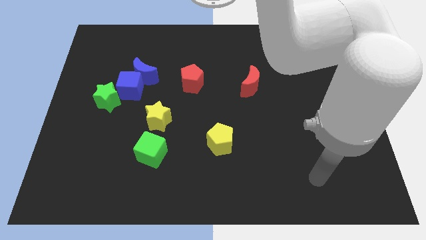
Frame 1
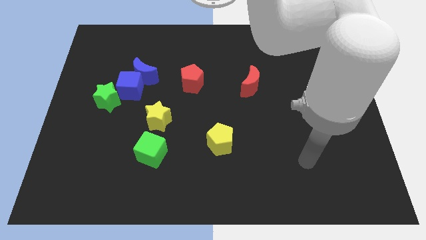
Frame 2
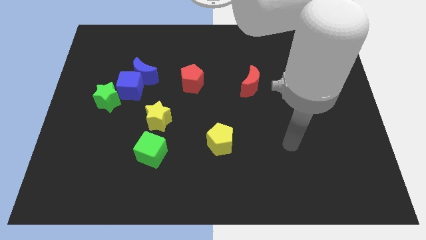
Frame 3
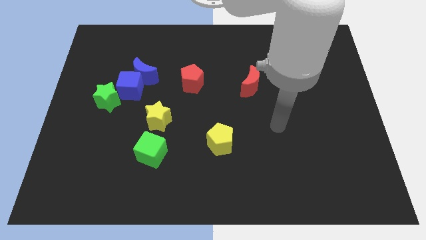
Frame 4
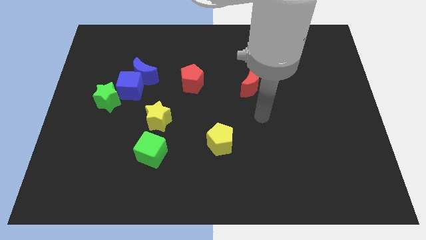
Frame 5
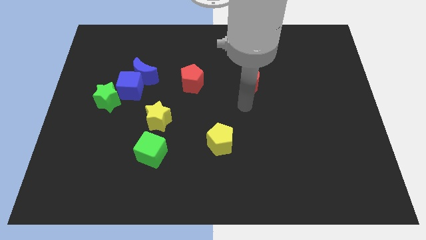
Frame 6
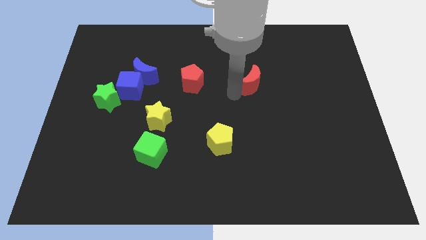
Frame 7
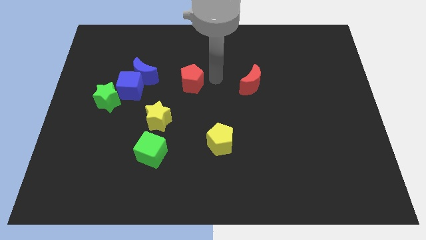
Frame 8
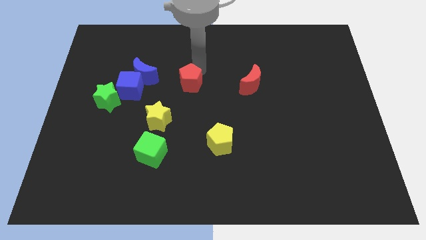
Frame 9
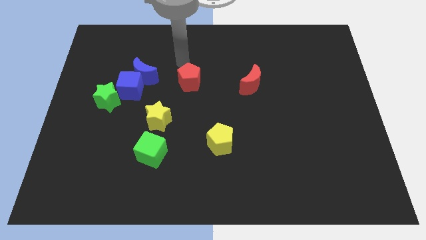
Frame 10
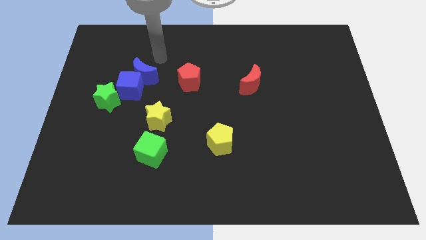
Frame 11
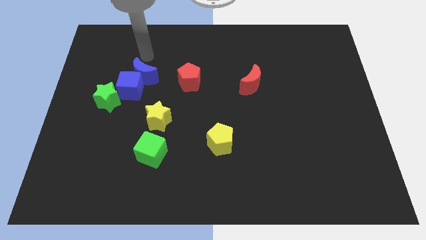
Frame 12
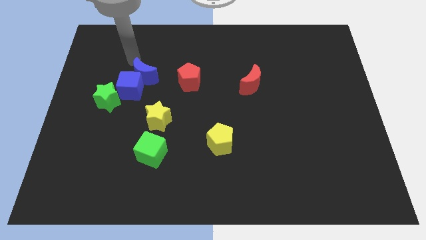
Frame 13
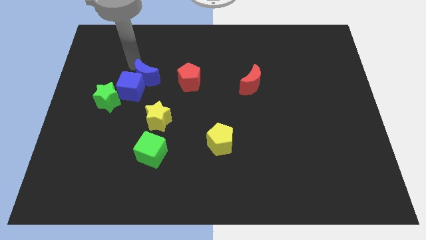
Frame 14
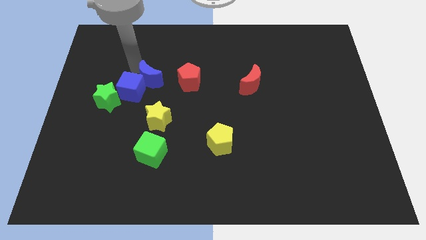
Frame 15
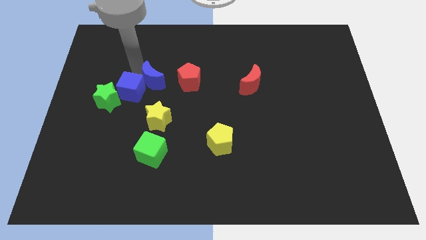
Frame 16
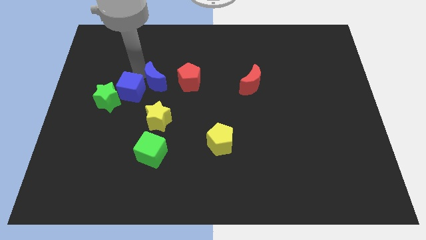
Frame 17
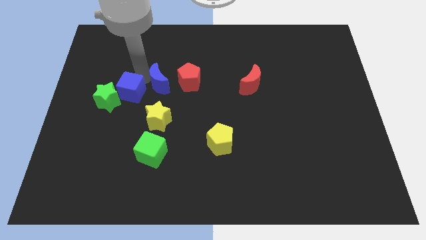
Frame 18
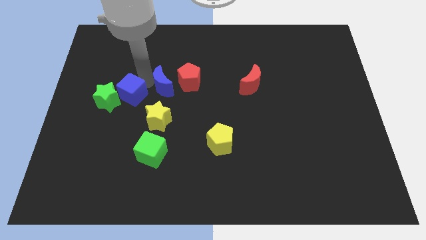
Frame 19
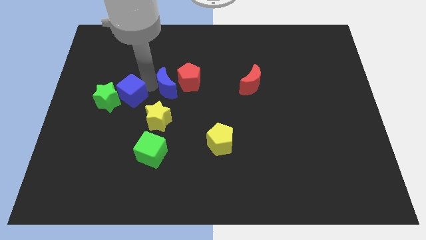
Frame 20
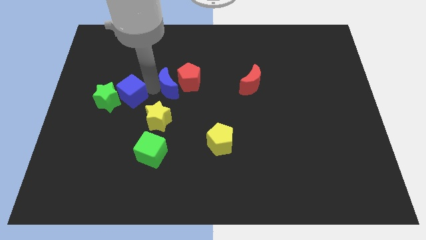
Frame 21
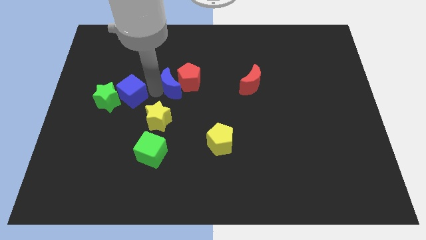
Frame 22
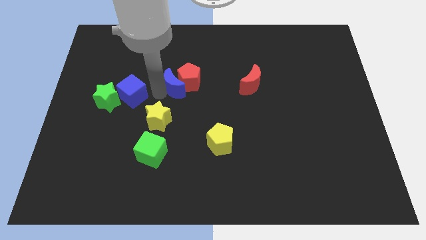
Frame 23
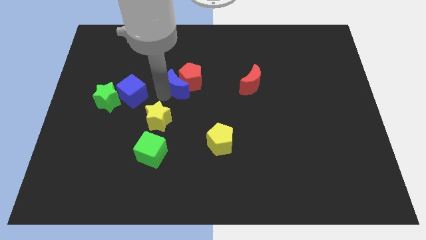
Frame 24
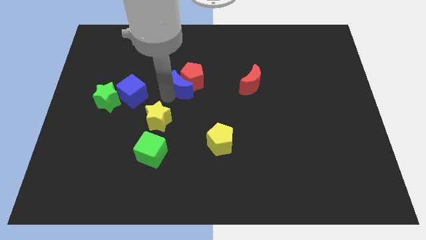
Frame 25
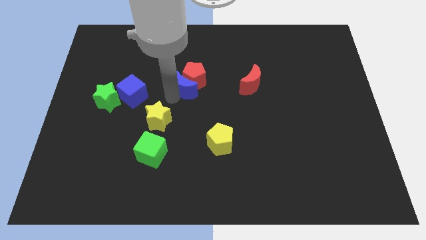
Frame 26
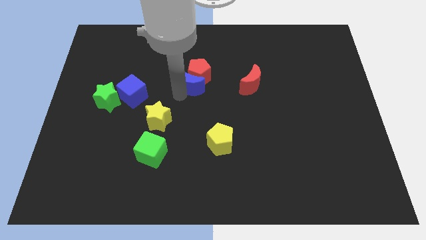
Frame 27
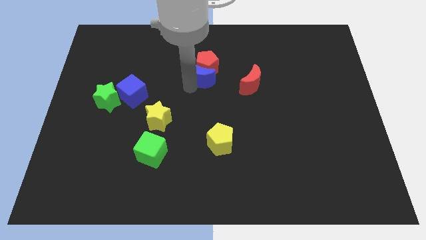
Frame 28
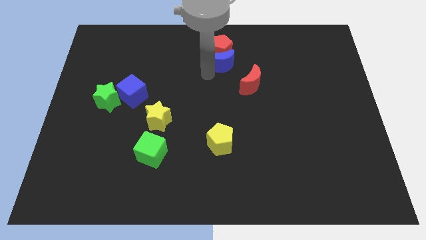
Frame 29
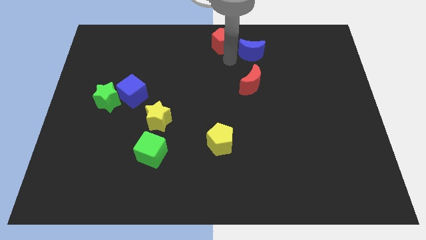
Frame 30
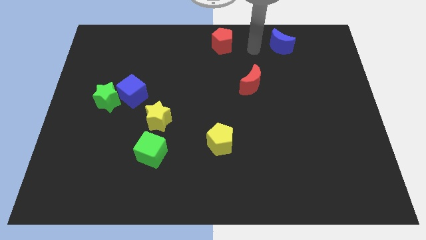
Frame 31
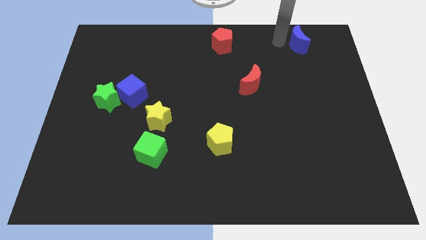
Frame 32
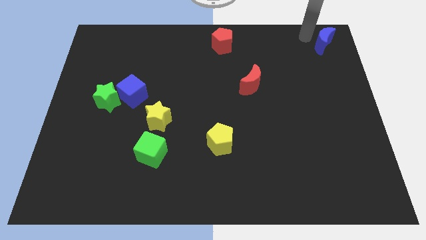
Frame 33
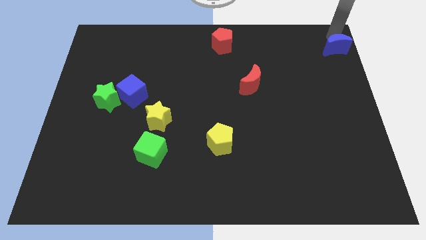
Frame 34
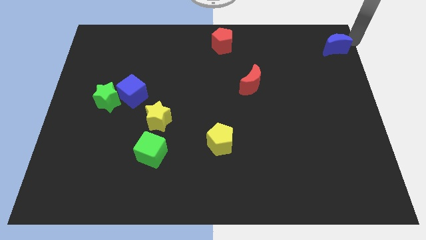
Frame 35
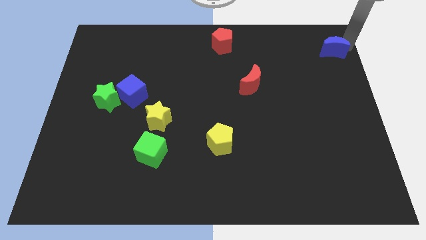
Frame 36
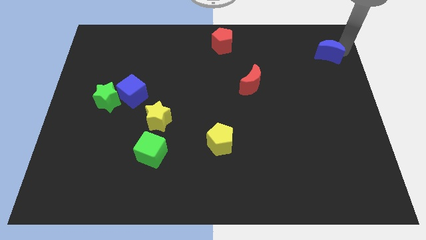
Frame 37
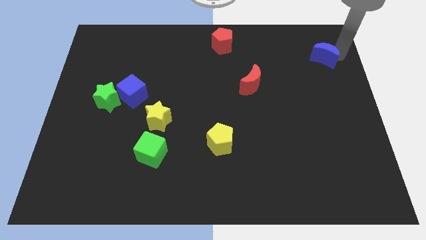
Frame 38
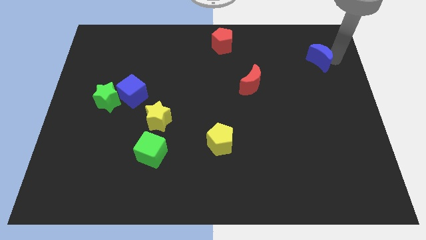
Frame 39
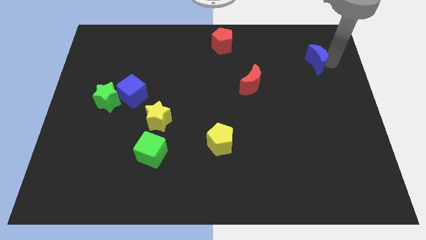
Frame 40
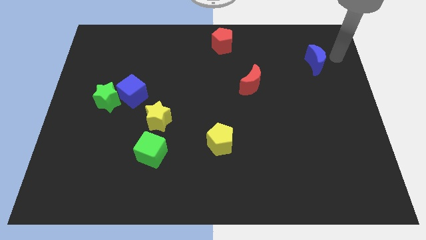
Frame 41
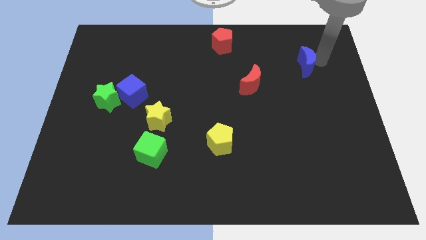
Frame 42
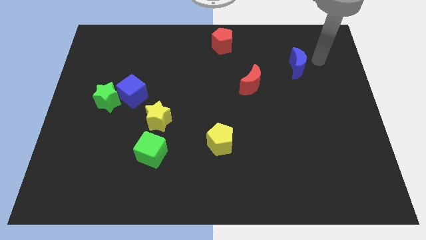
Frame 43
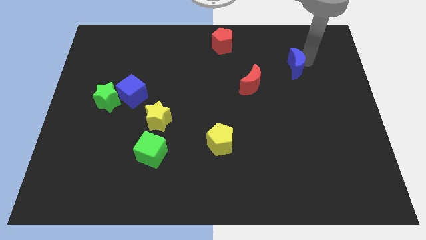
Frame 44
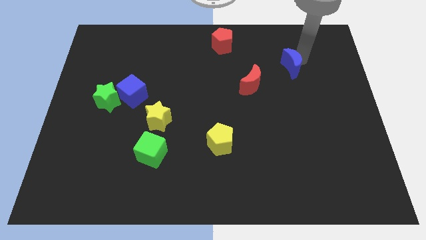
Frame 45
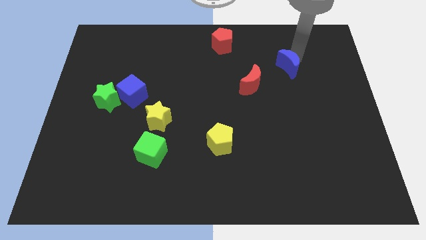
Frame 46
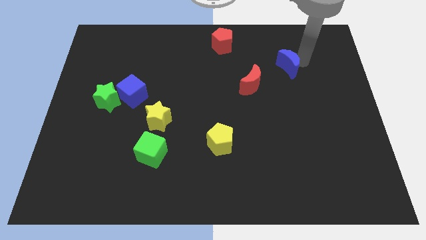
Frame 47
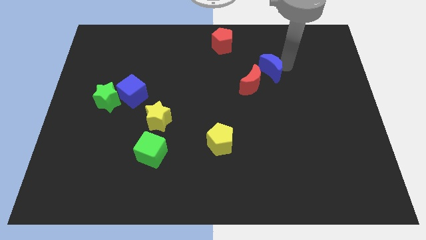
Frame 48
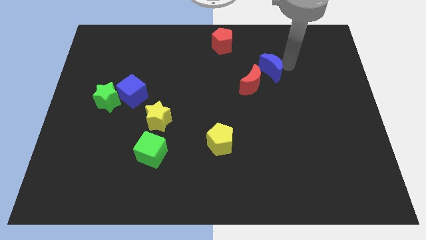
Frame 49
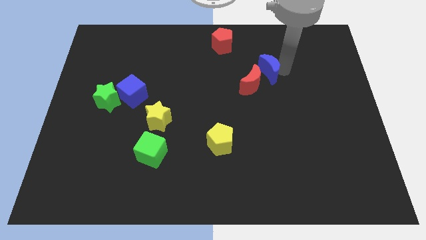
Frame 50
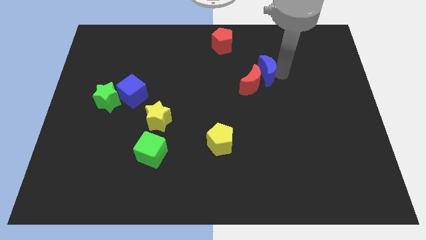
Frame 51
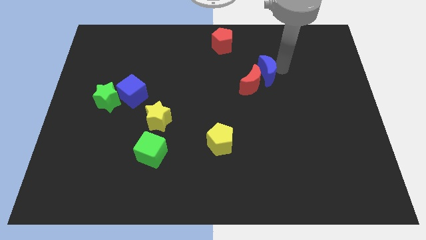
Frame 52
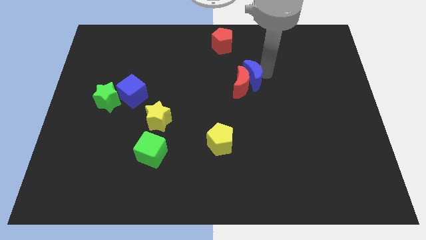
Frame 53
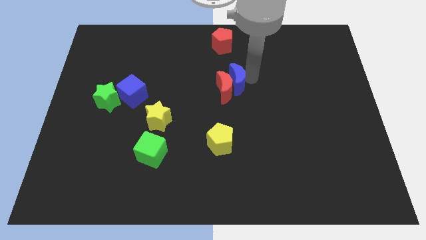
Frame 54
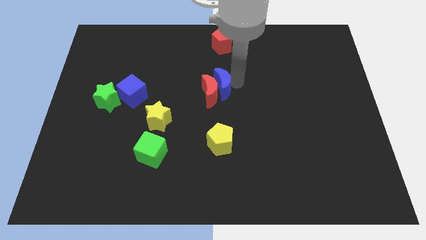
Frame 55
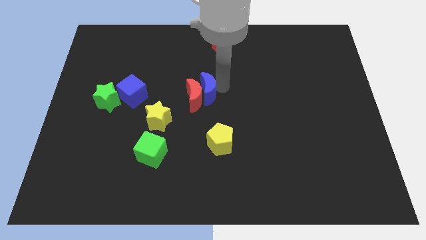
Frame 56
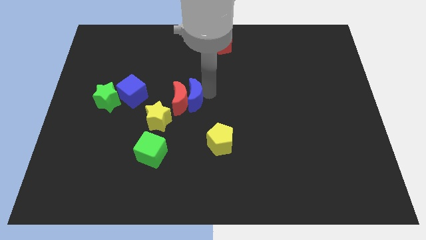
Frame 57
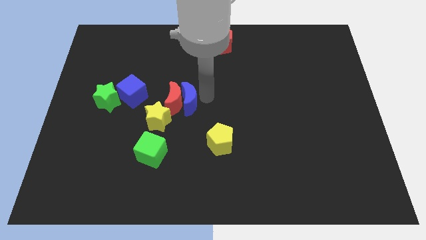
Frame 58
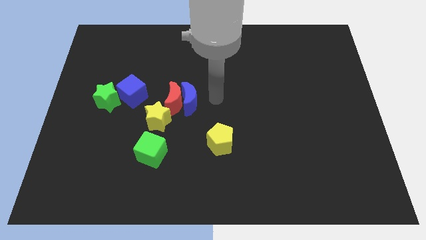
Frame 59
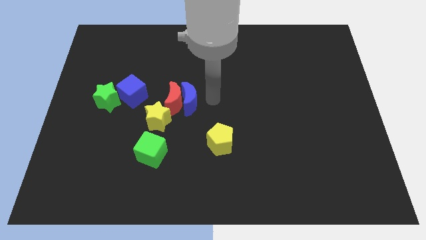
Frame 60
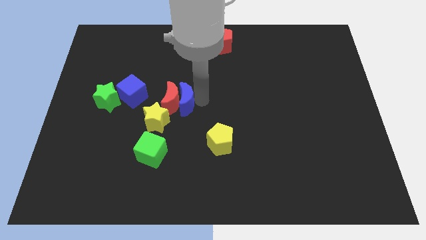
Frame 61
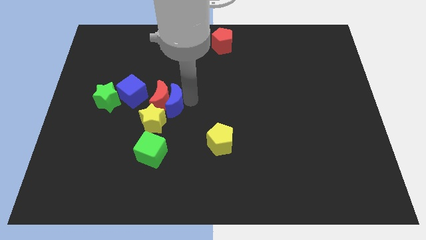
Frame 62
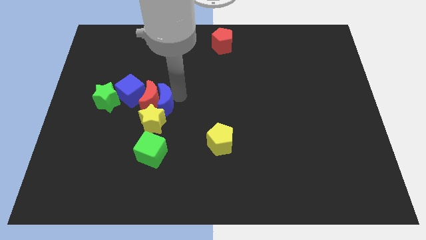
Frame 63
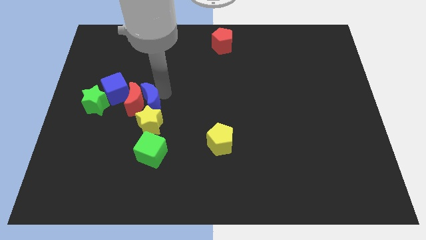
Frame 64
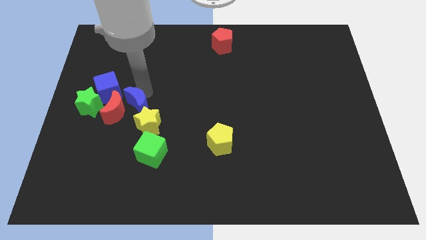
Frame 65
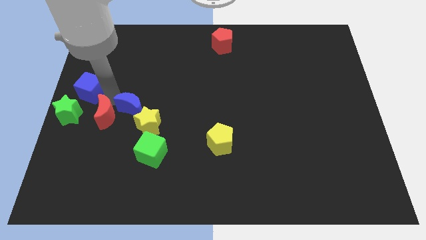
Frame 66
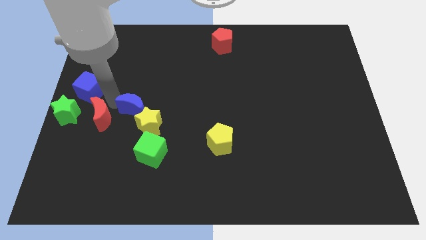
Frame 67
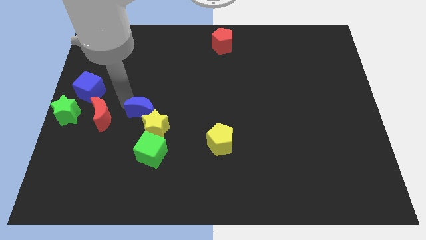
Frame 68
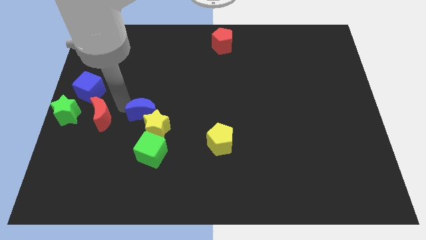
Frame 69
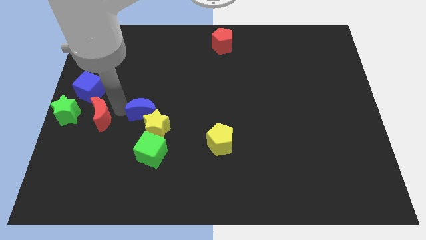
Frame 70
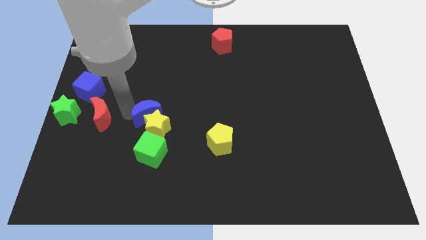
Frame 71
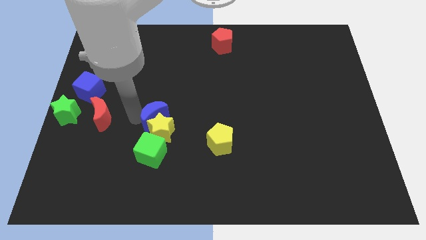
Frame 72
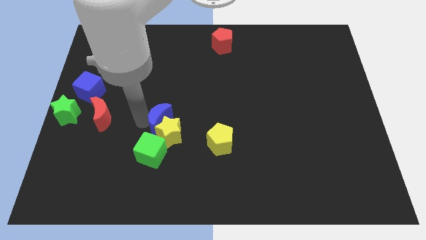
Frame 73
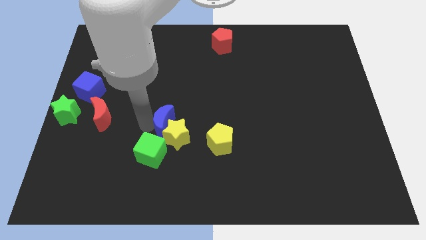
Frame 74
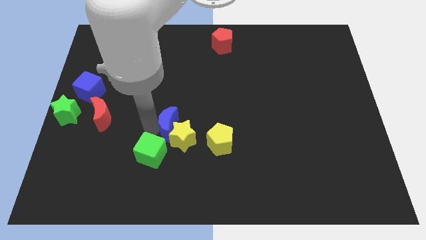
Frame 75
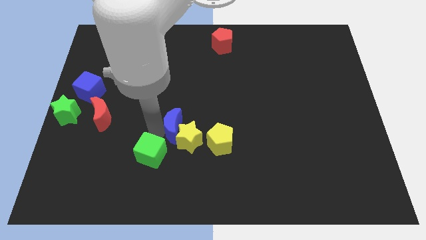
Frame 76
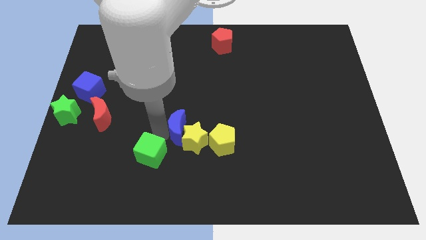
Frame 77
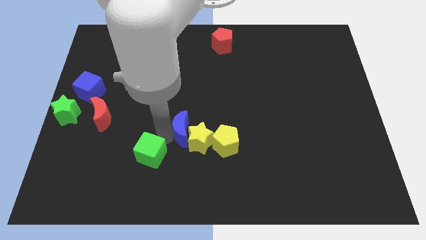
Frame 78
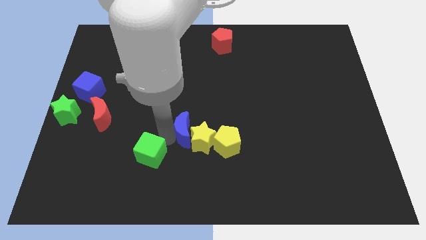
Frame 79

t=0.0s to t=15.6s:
put the blue moon to the right of the green cube
